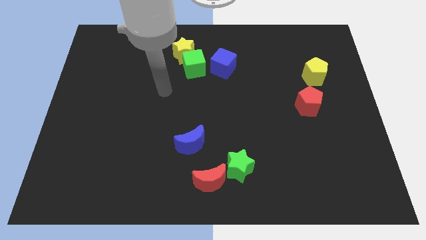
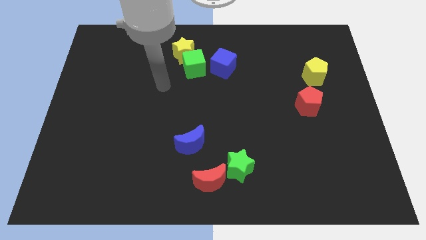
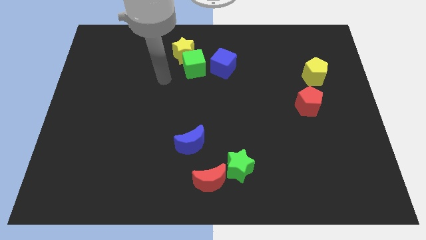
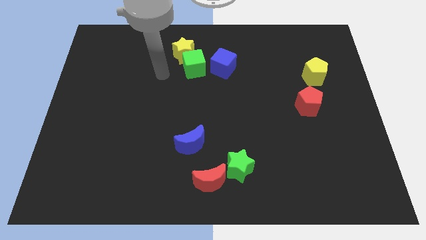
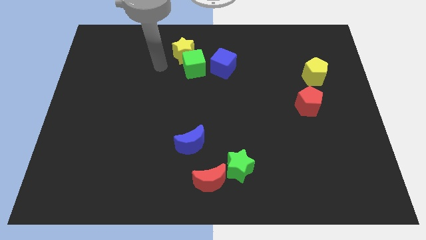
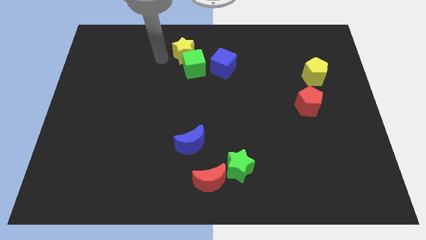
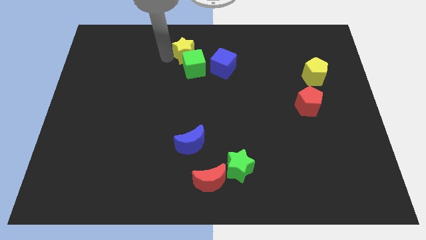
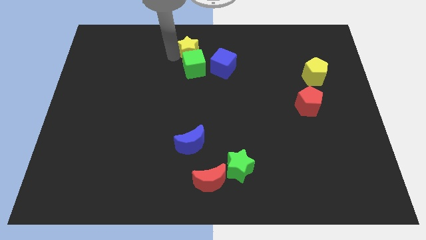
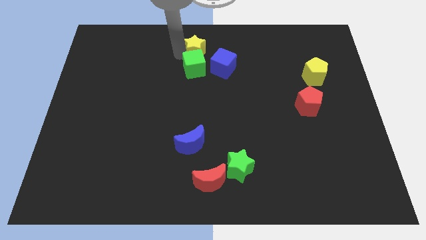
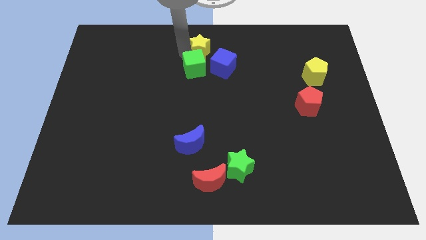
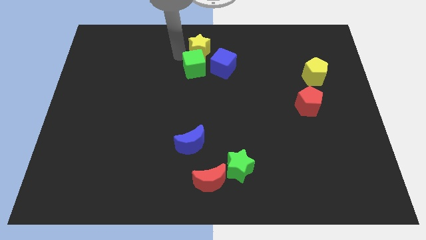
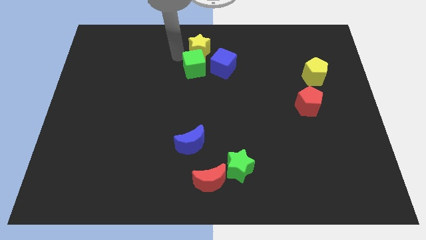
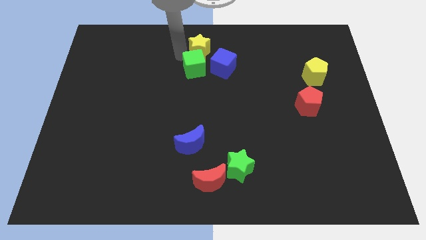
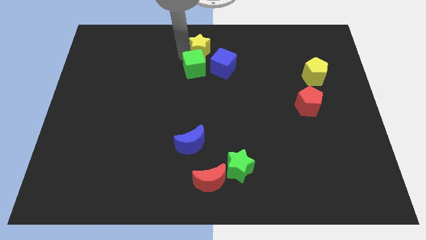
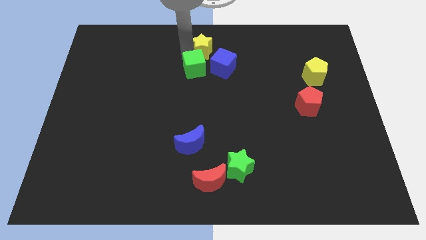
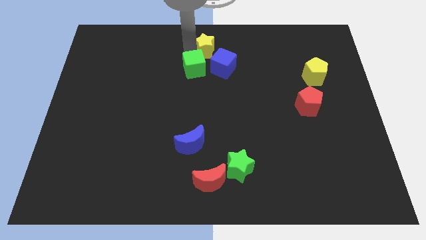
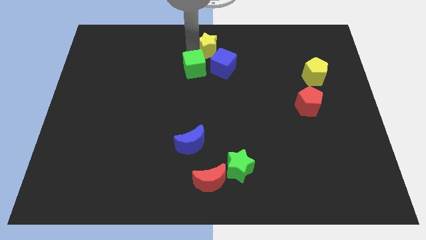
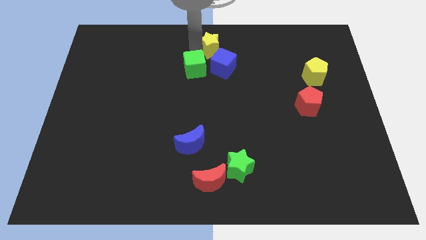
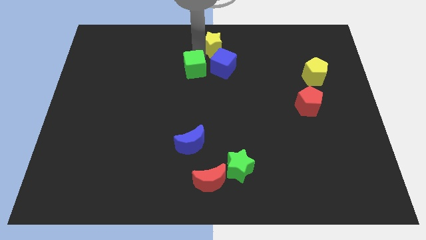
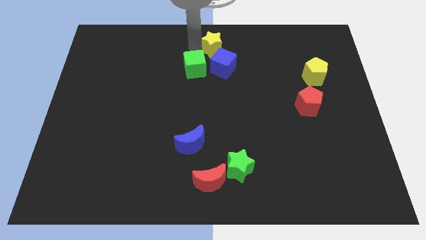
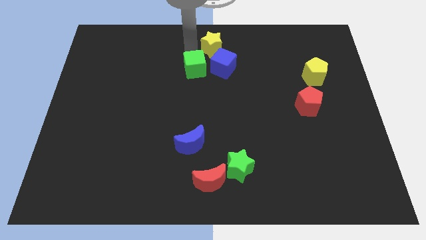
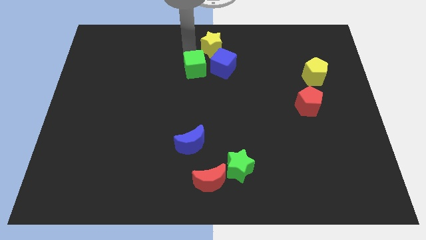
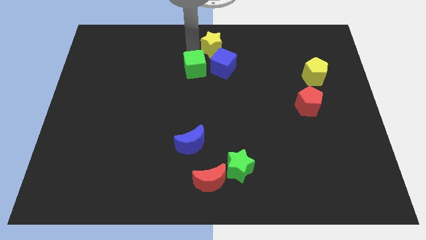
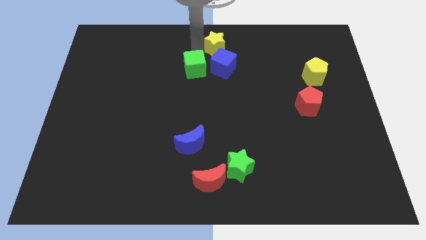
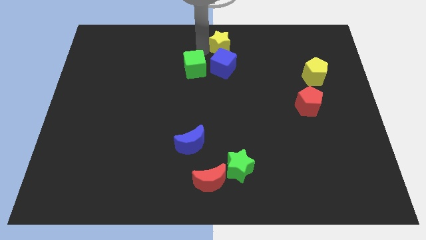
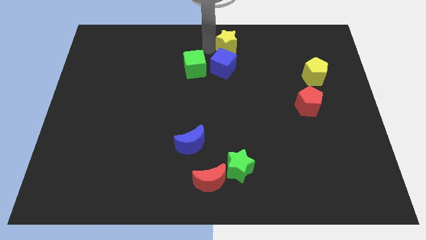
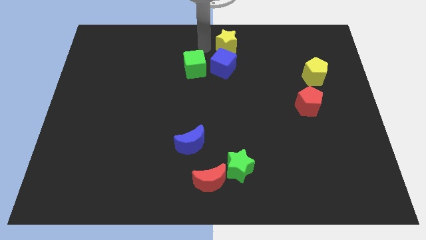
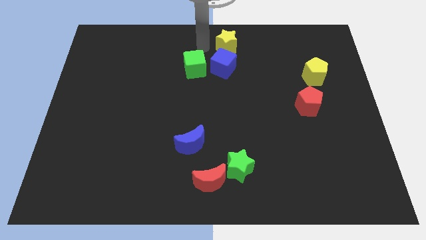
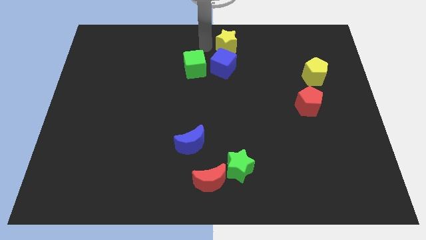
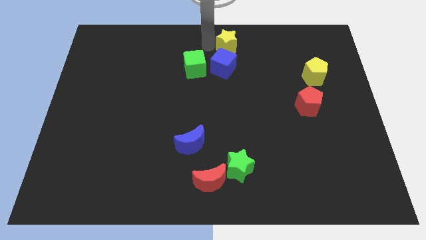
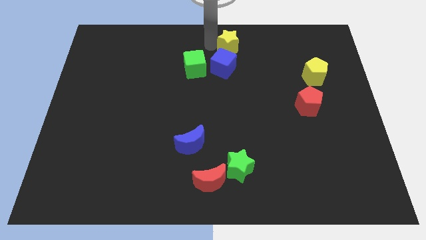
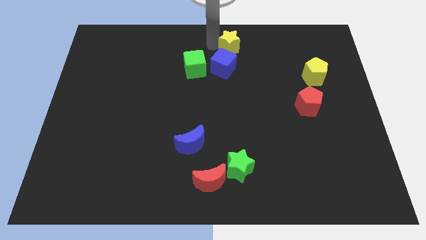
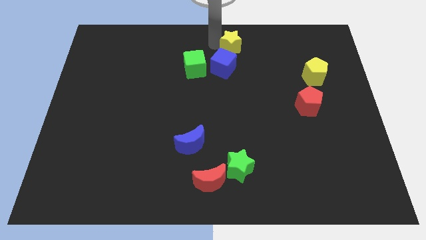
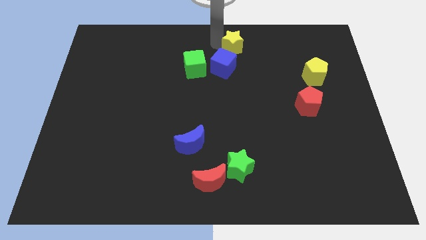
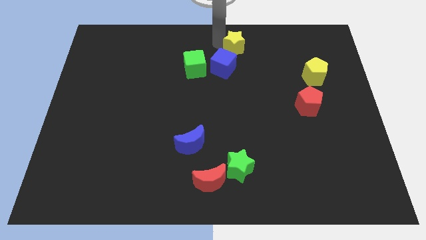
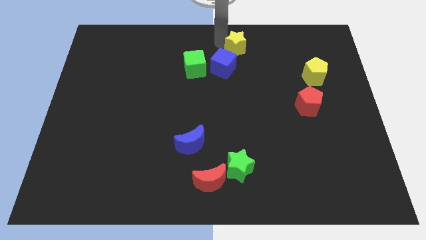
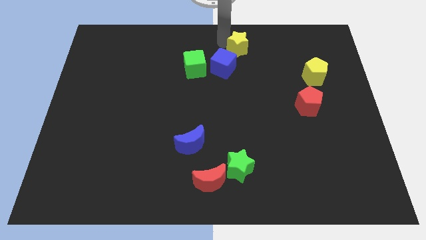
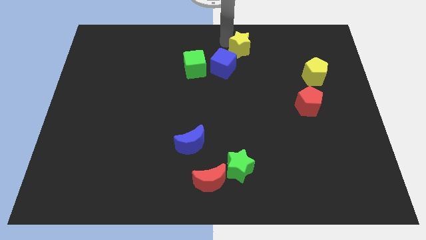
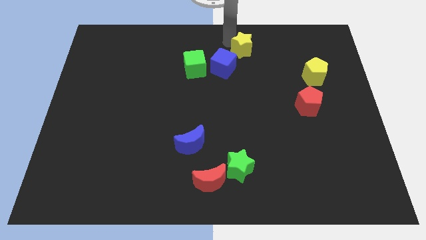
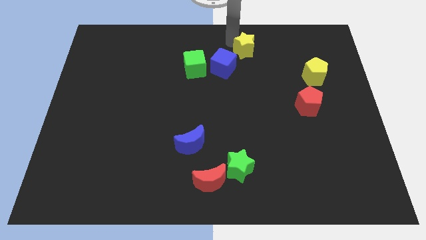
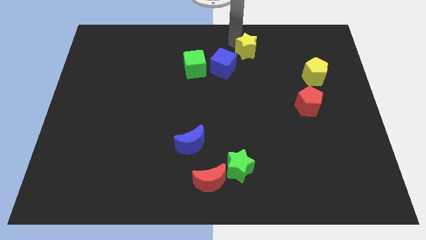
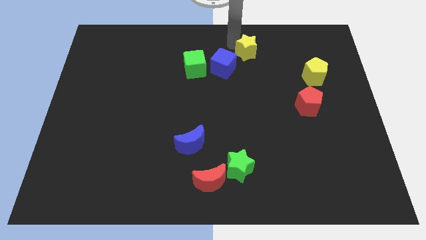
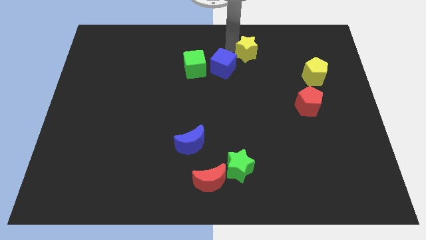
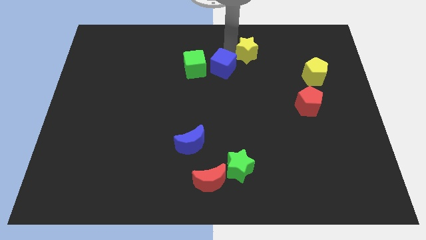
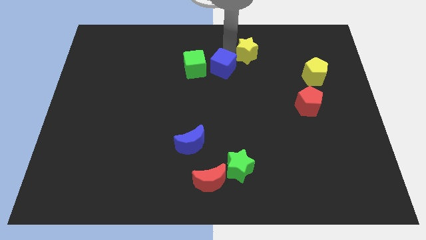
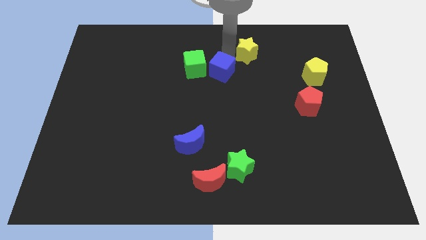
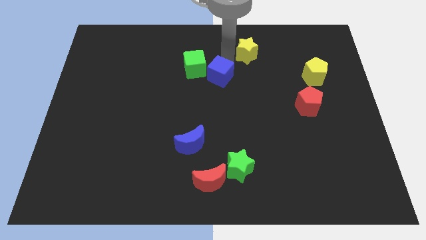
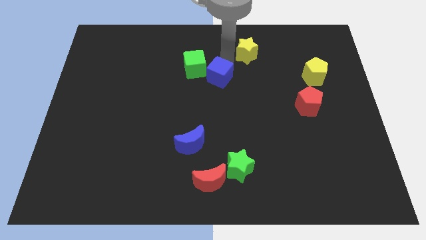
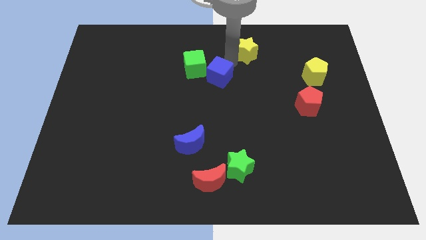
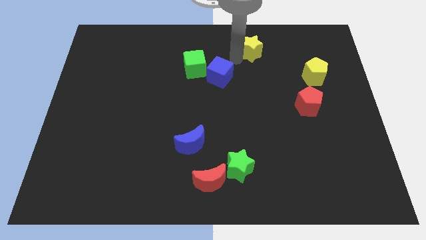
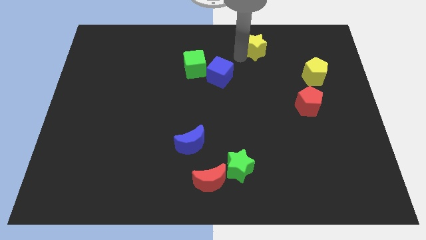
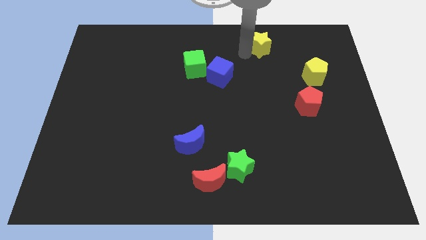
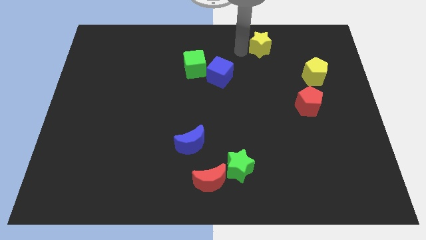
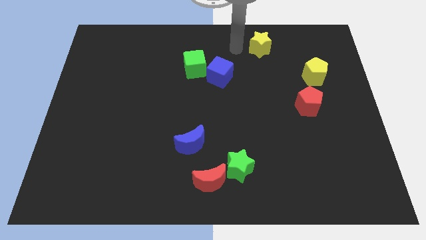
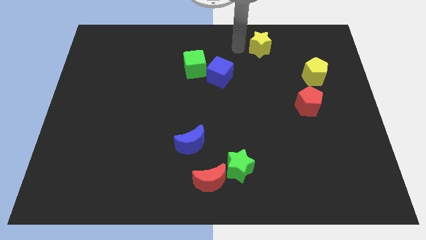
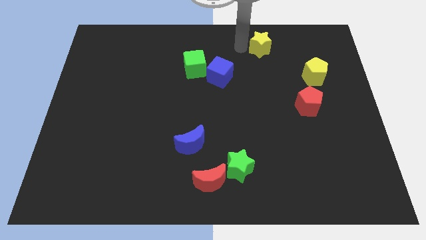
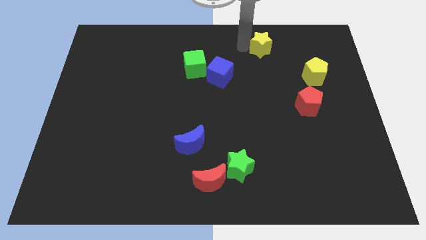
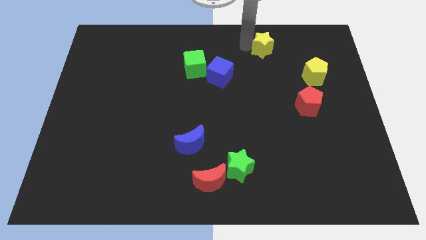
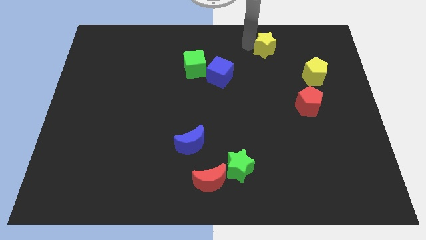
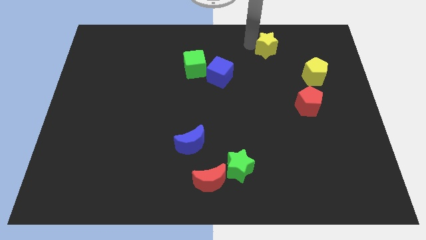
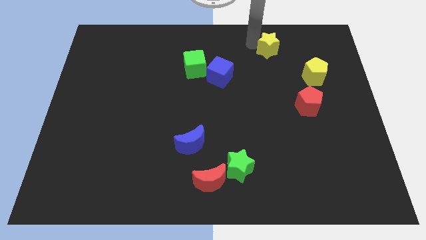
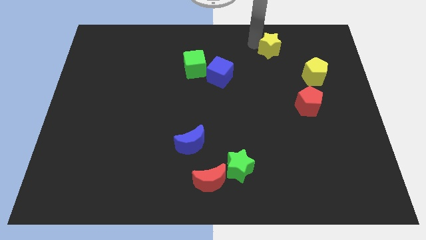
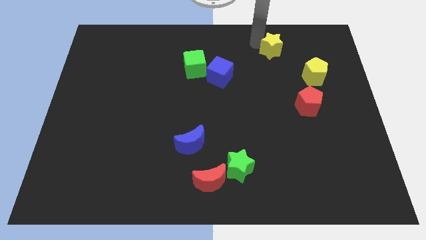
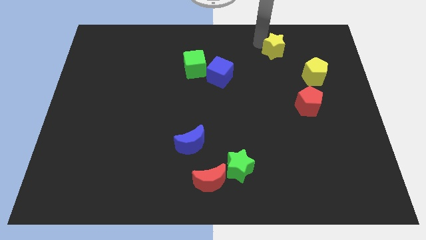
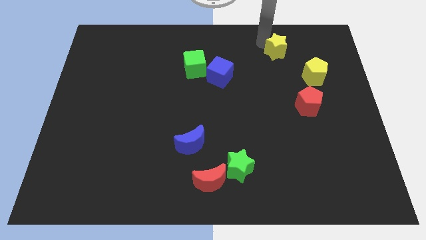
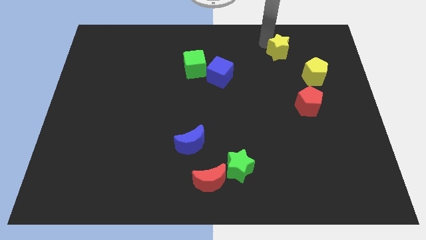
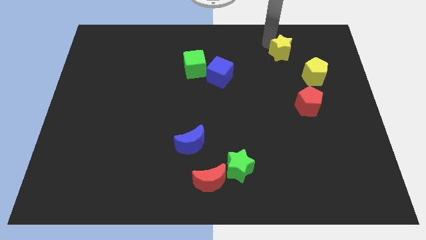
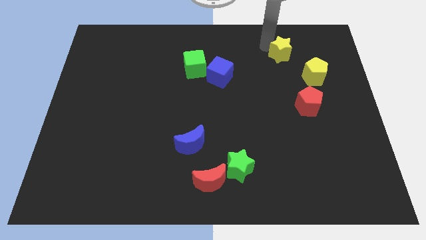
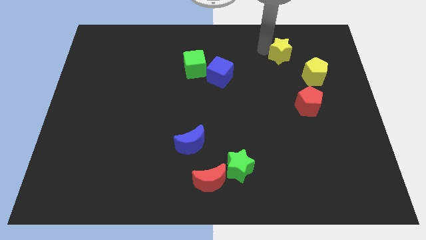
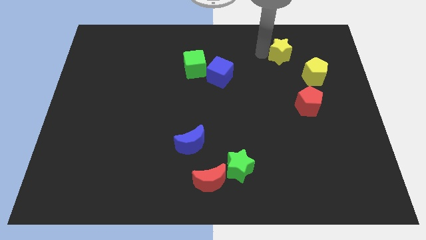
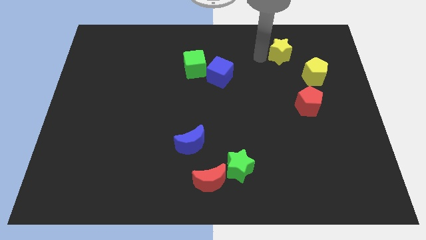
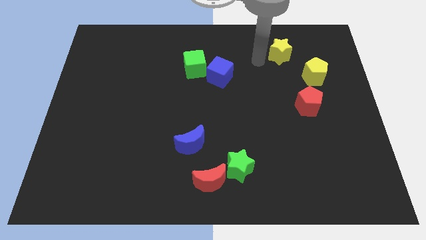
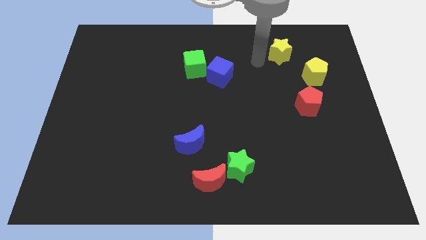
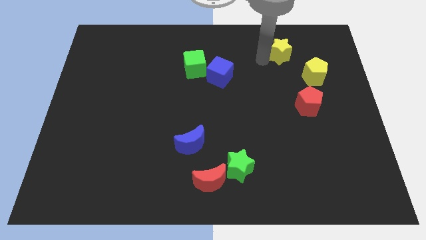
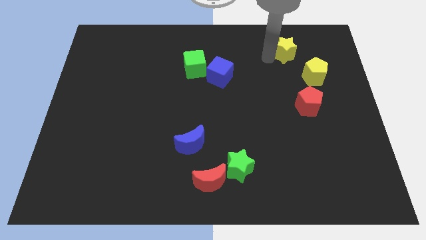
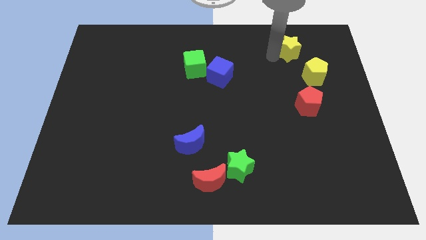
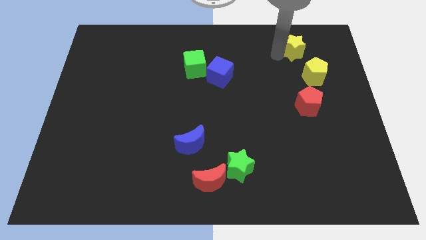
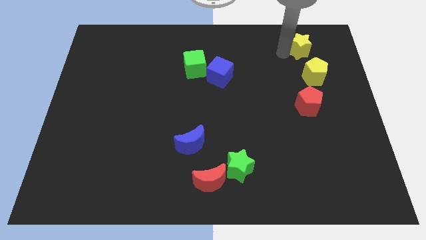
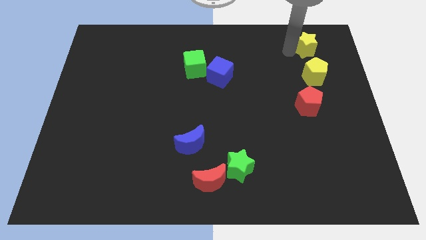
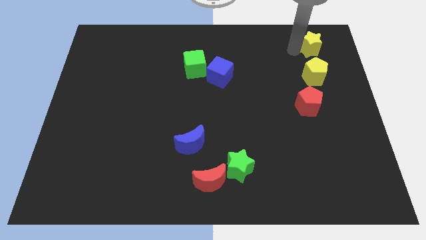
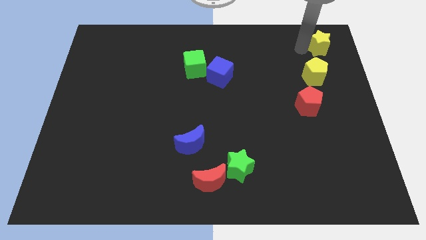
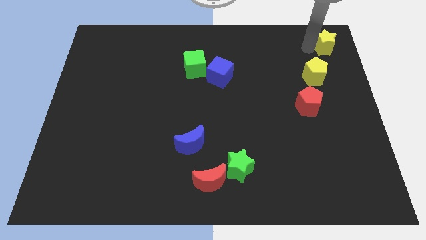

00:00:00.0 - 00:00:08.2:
slide the yellow star to the top right
